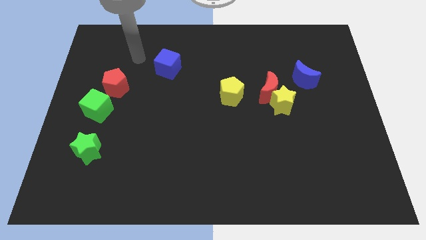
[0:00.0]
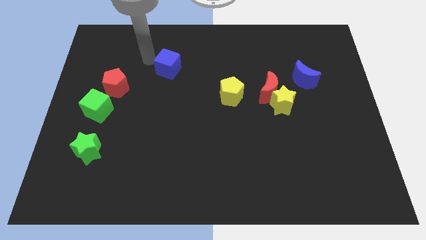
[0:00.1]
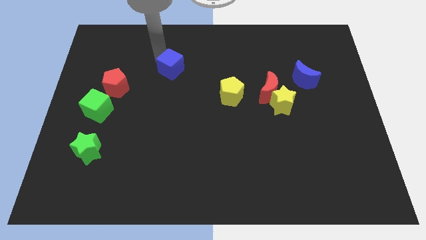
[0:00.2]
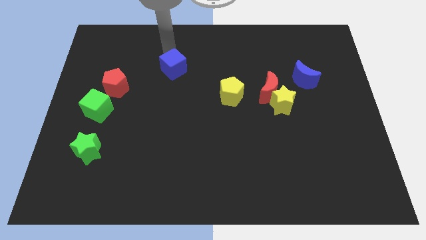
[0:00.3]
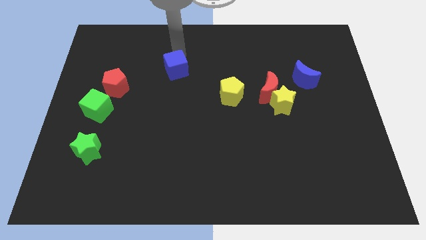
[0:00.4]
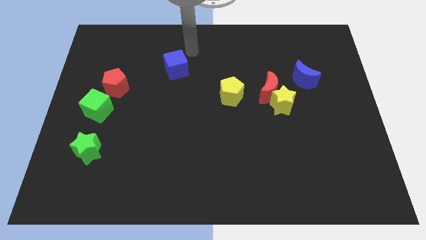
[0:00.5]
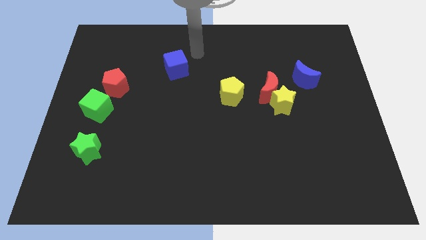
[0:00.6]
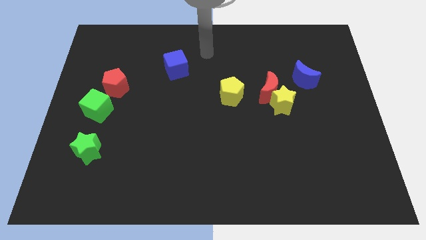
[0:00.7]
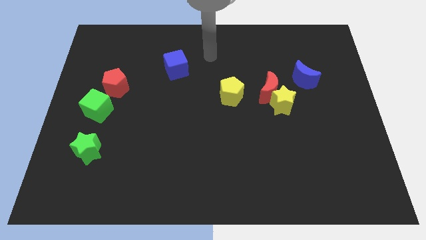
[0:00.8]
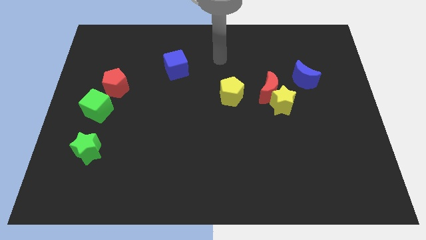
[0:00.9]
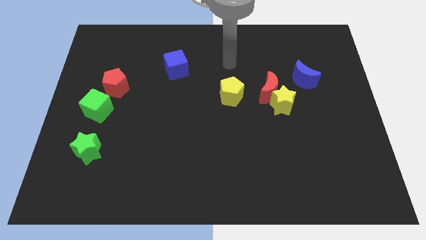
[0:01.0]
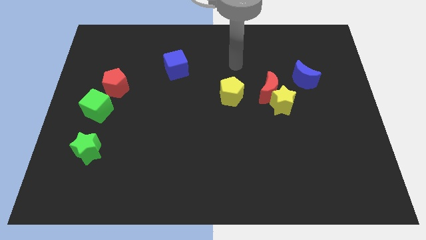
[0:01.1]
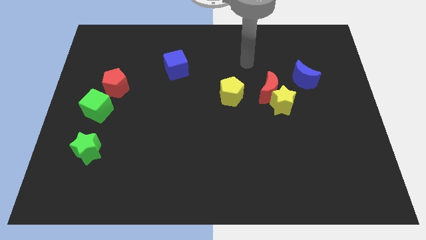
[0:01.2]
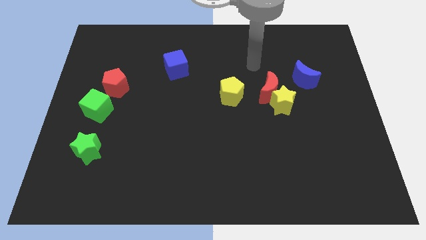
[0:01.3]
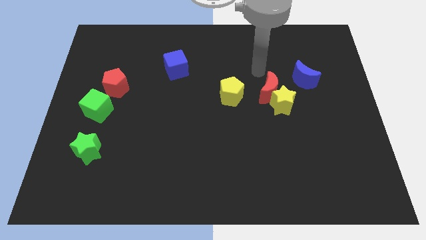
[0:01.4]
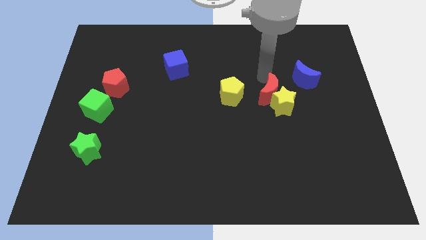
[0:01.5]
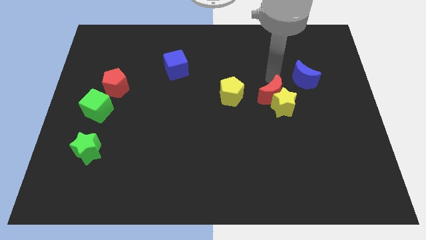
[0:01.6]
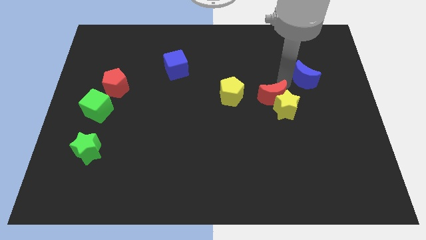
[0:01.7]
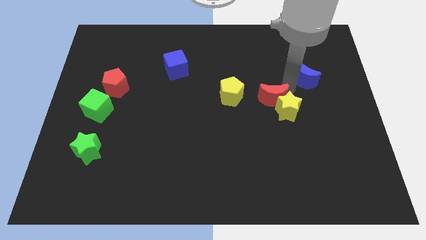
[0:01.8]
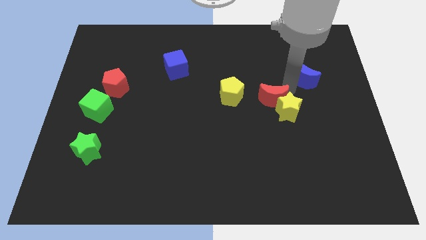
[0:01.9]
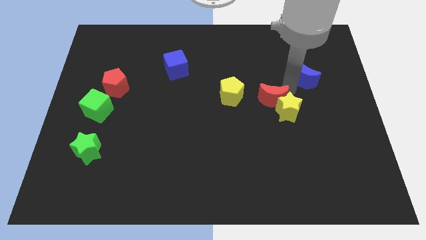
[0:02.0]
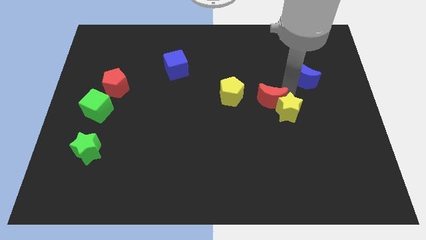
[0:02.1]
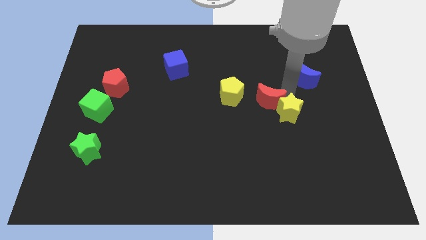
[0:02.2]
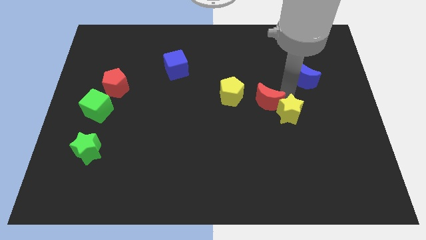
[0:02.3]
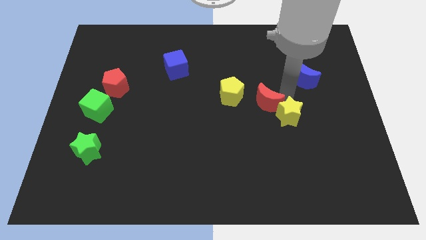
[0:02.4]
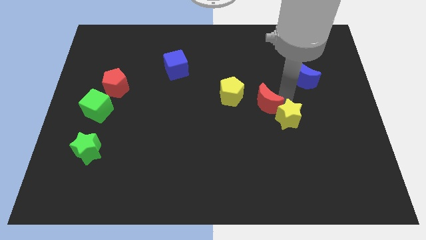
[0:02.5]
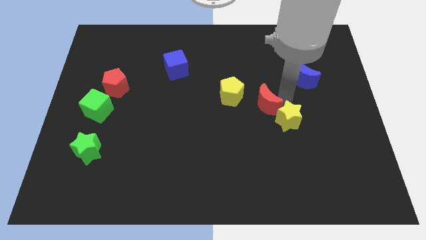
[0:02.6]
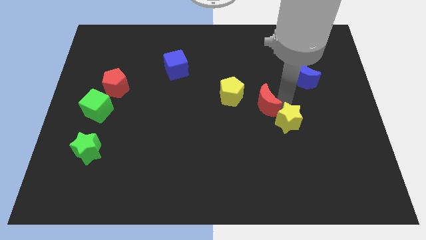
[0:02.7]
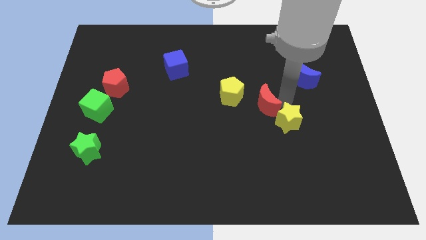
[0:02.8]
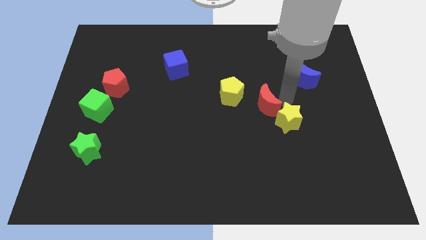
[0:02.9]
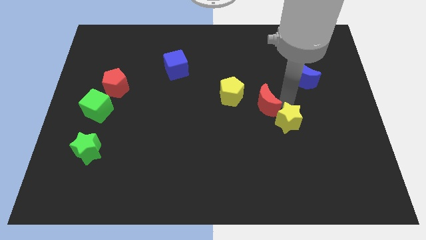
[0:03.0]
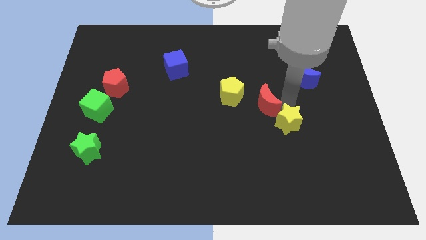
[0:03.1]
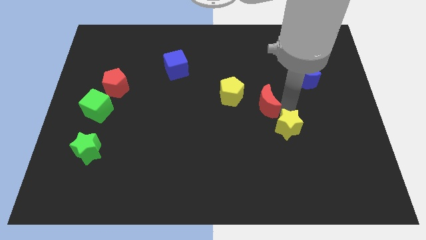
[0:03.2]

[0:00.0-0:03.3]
move the yellow star away from the red moon and blue moon

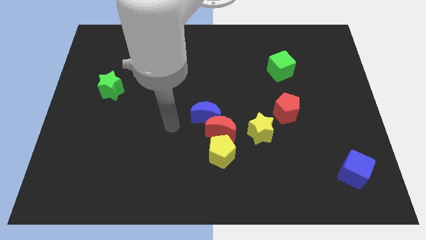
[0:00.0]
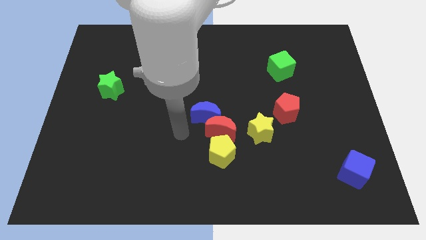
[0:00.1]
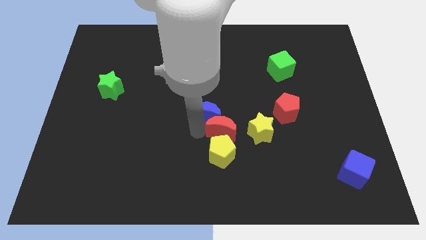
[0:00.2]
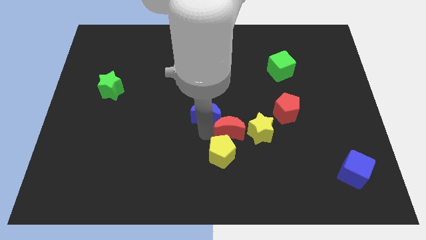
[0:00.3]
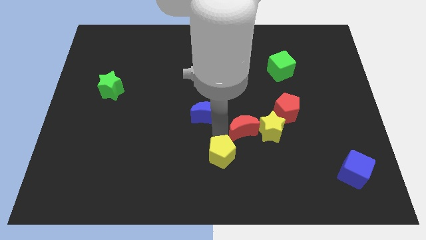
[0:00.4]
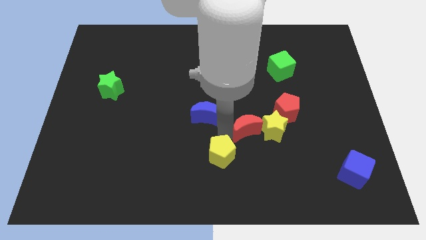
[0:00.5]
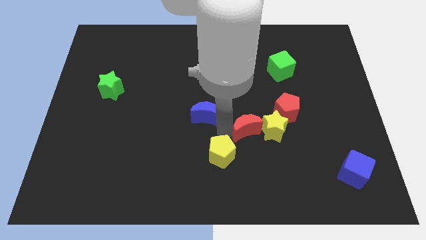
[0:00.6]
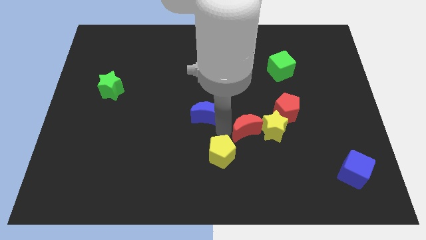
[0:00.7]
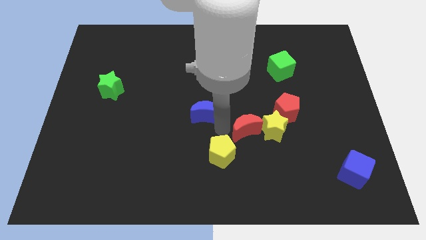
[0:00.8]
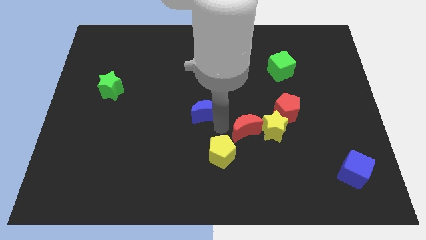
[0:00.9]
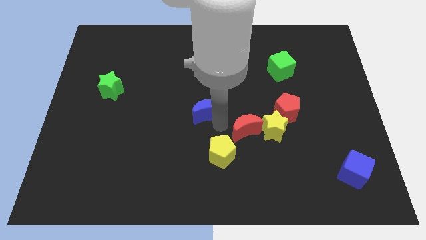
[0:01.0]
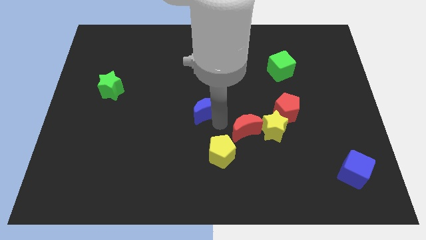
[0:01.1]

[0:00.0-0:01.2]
move the blue moon away from the red moon

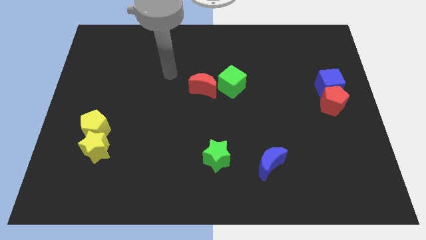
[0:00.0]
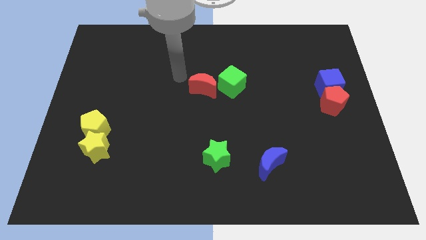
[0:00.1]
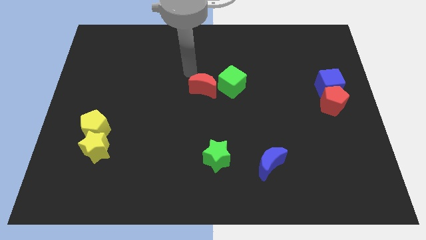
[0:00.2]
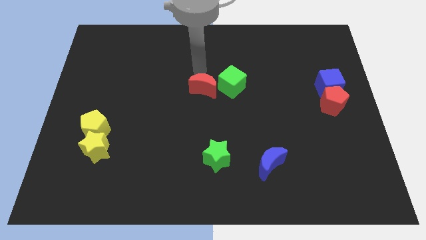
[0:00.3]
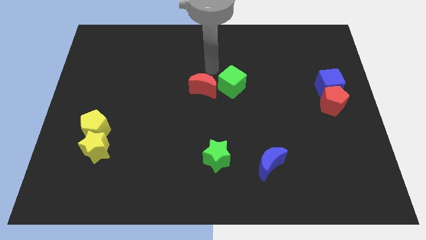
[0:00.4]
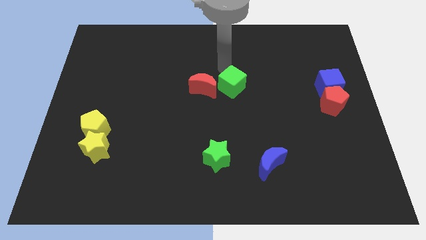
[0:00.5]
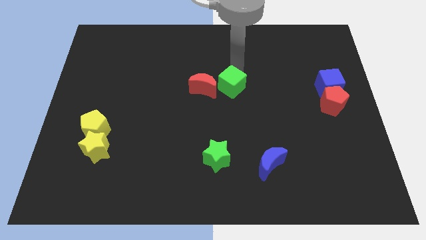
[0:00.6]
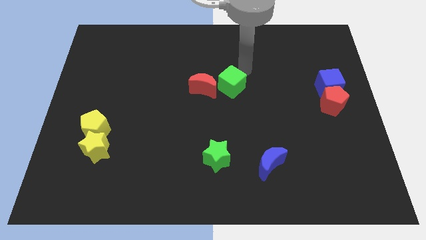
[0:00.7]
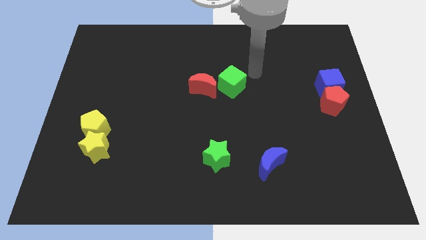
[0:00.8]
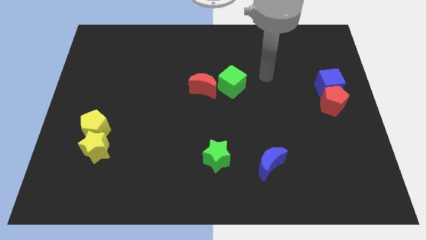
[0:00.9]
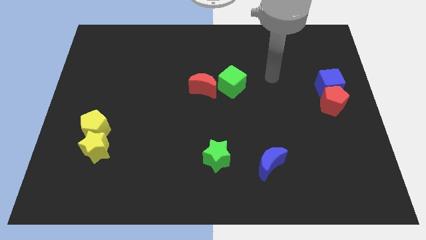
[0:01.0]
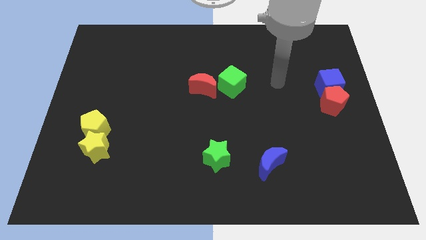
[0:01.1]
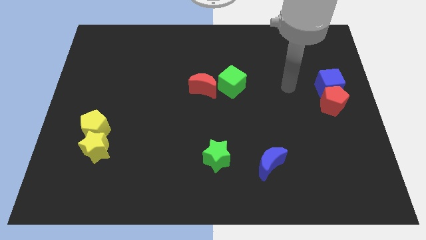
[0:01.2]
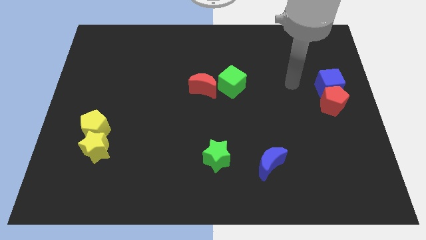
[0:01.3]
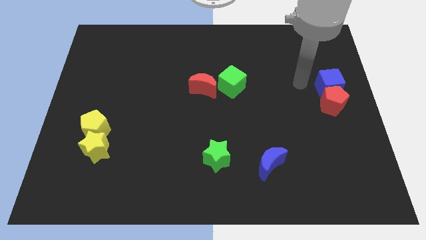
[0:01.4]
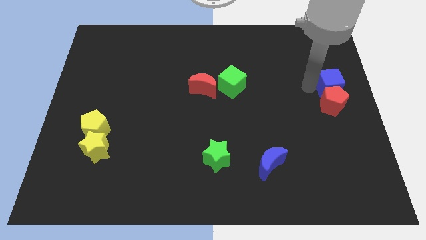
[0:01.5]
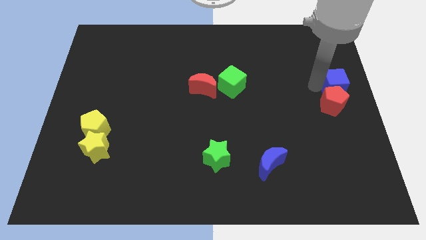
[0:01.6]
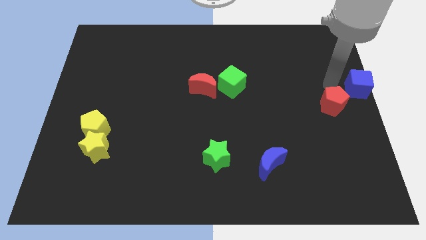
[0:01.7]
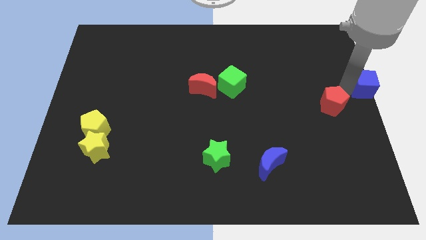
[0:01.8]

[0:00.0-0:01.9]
move the red pentagon away from the blue cube

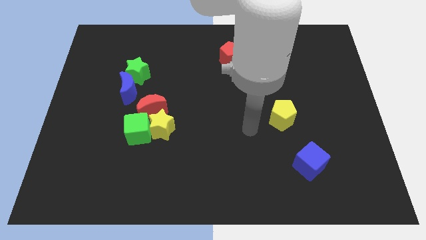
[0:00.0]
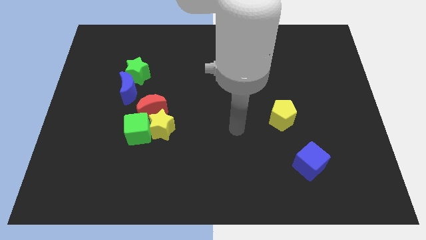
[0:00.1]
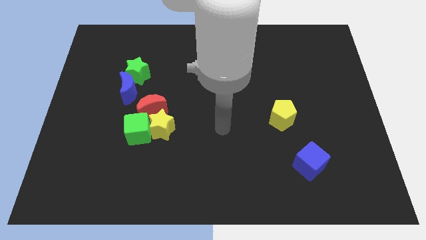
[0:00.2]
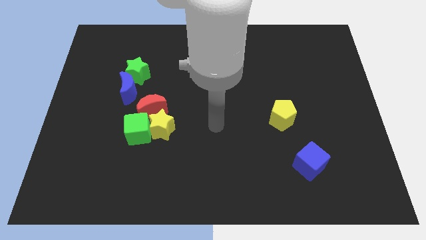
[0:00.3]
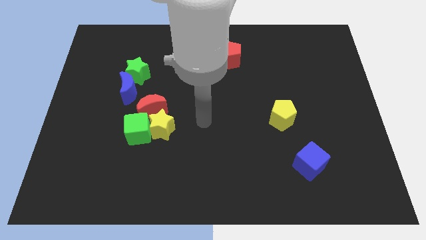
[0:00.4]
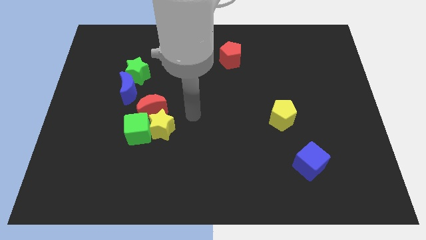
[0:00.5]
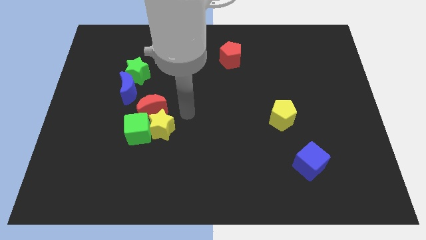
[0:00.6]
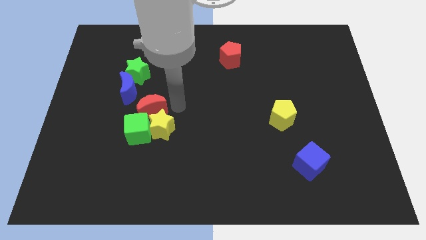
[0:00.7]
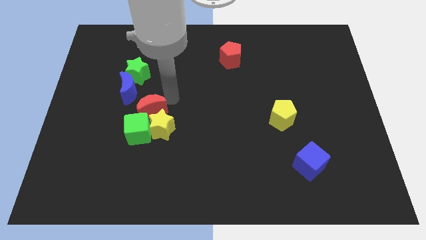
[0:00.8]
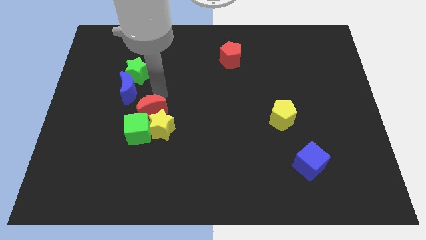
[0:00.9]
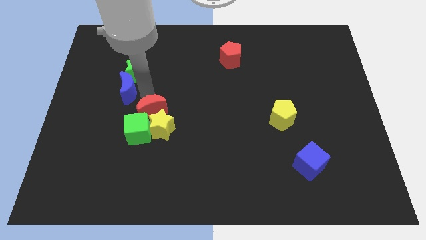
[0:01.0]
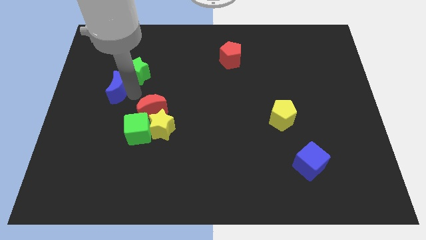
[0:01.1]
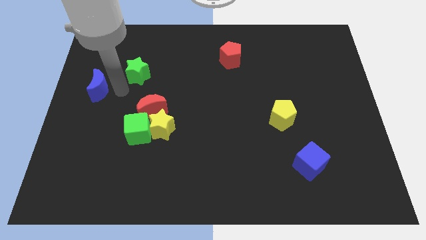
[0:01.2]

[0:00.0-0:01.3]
move the green star away from the blue moon

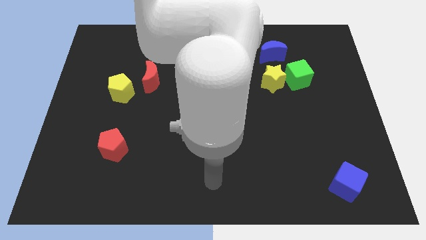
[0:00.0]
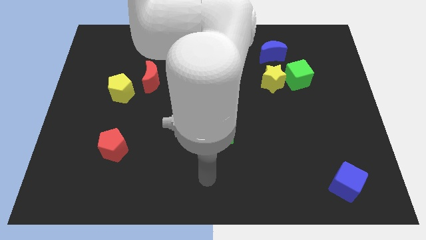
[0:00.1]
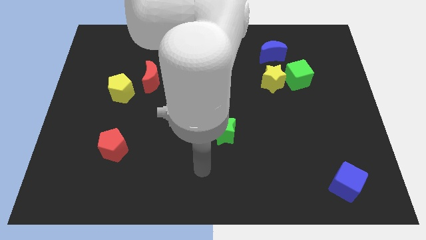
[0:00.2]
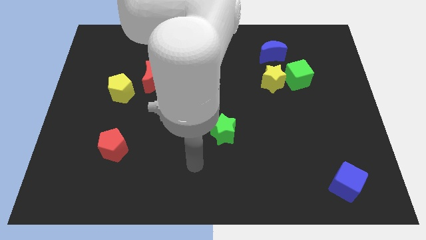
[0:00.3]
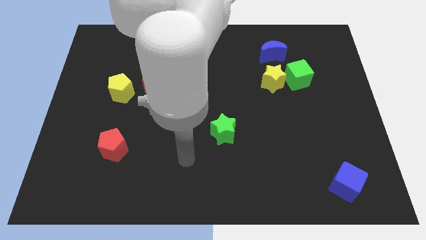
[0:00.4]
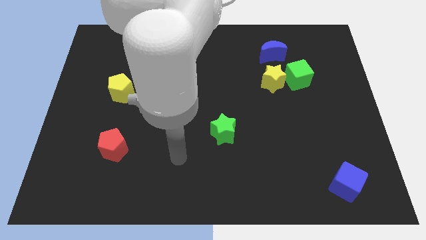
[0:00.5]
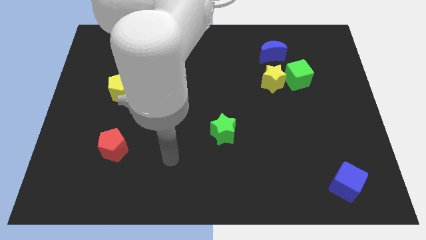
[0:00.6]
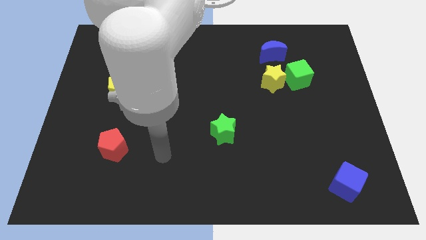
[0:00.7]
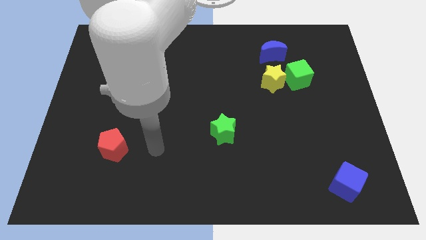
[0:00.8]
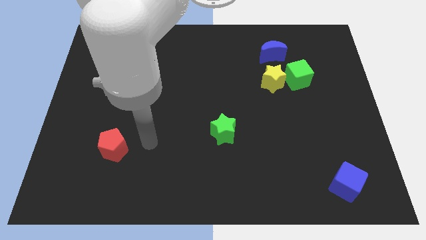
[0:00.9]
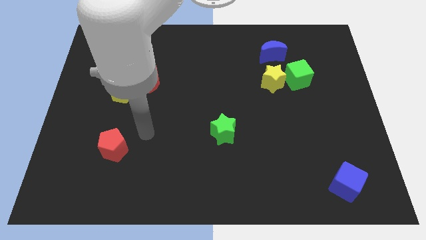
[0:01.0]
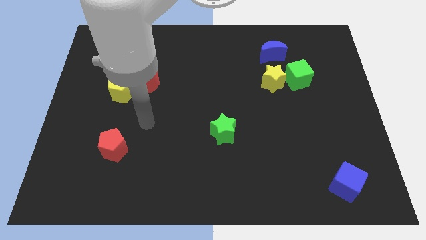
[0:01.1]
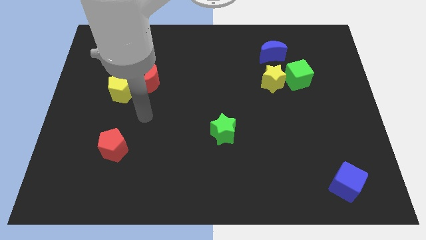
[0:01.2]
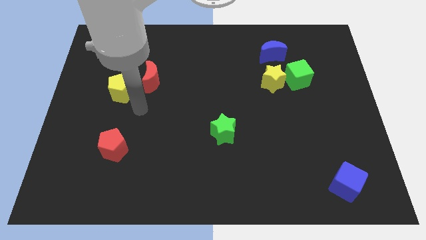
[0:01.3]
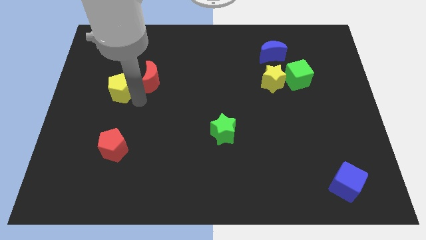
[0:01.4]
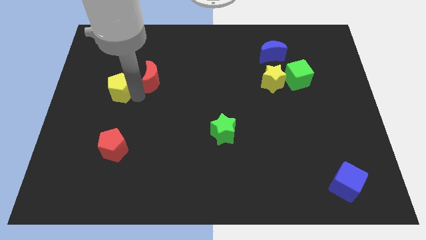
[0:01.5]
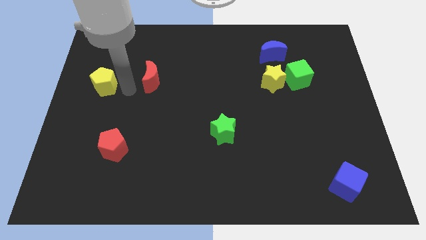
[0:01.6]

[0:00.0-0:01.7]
separate the red moon from the yellow pentagon
